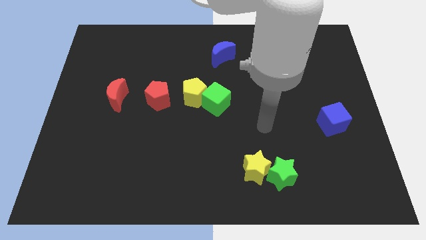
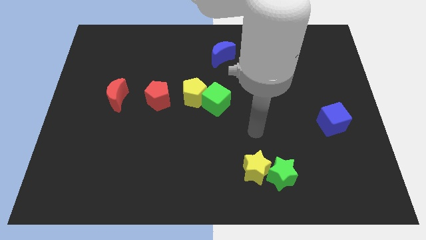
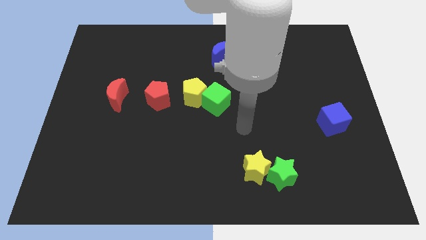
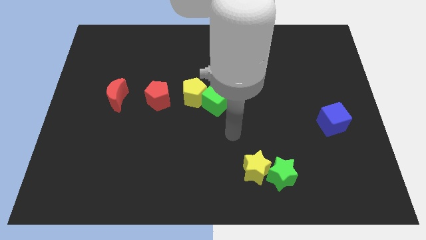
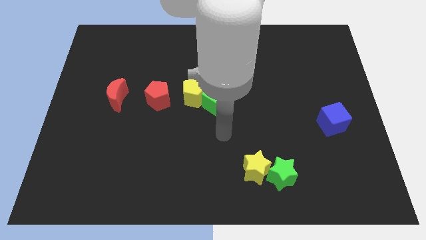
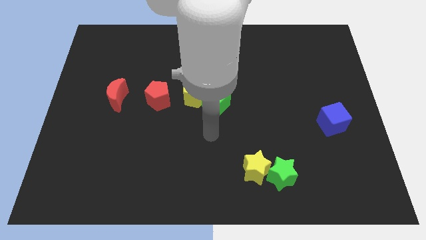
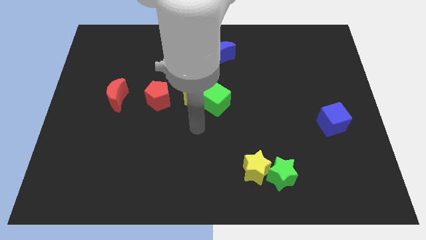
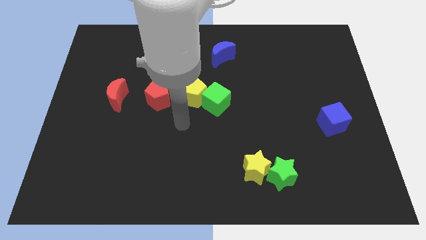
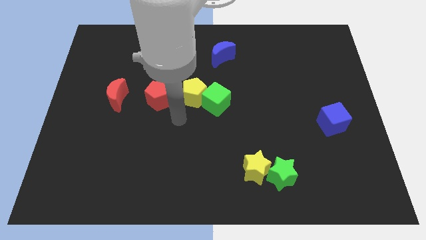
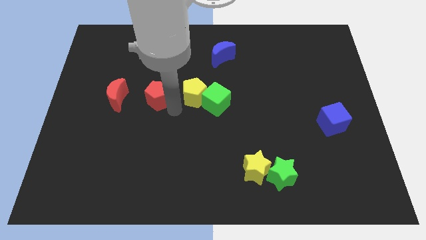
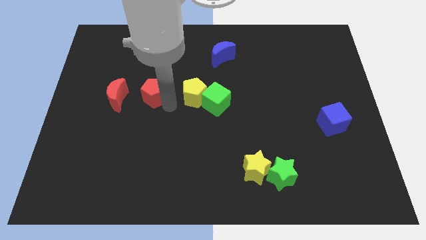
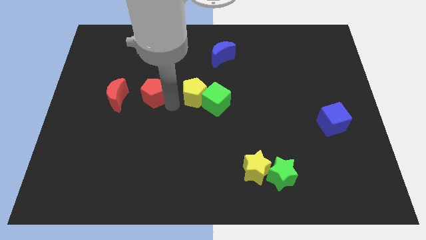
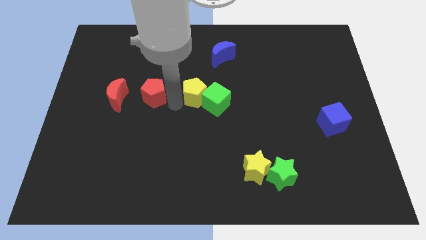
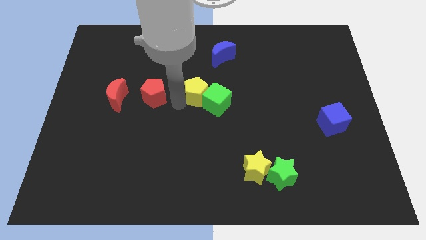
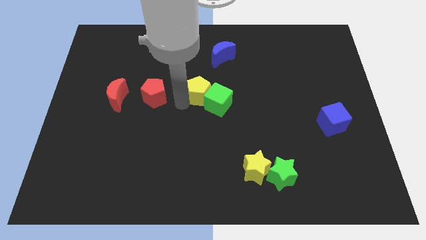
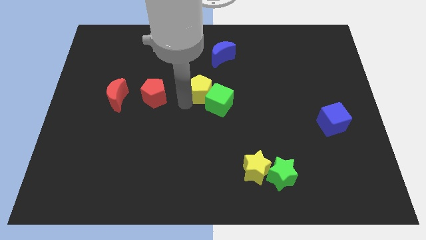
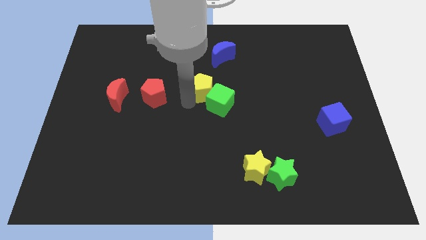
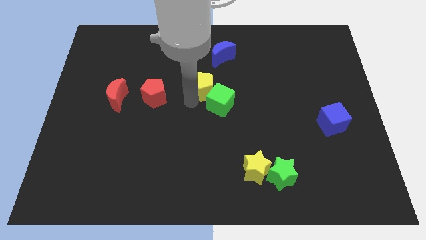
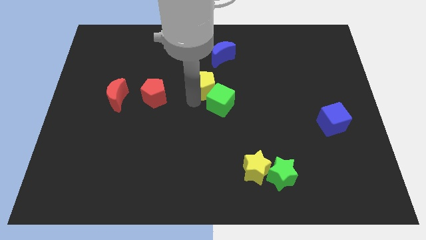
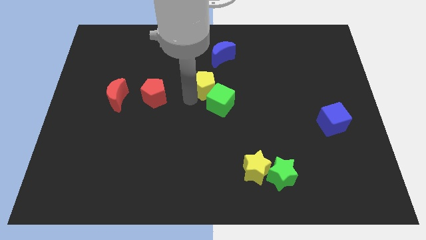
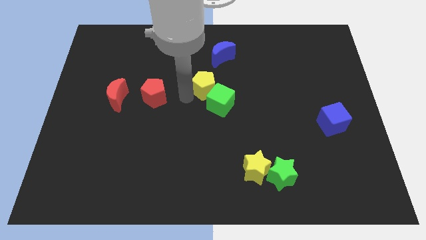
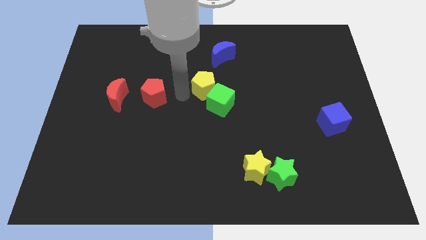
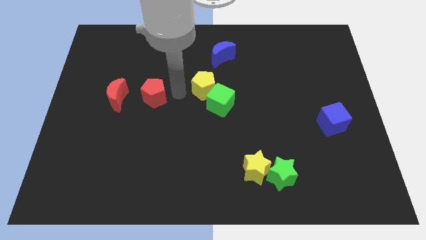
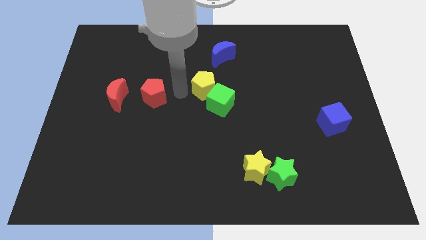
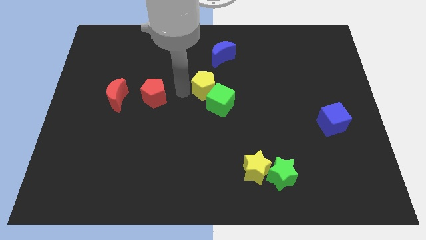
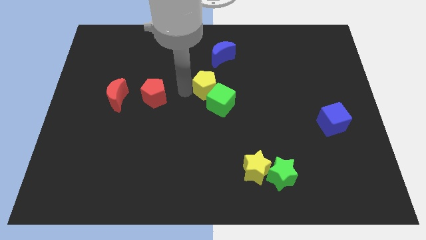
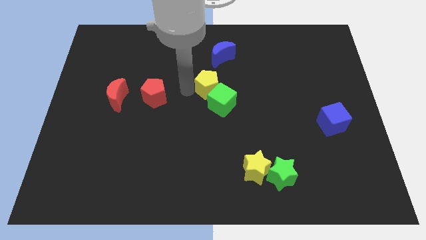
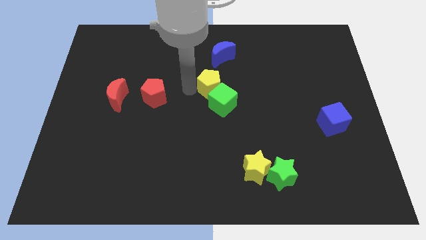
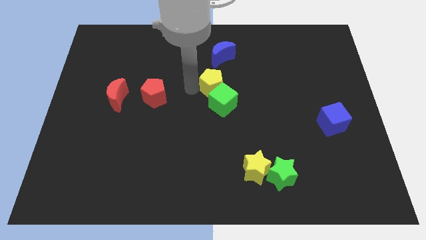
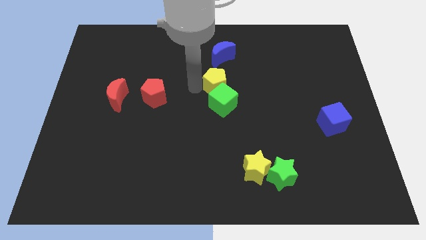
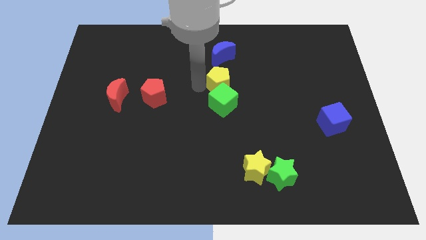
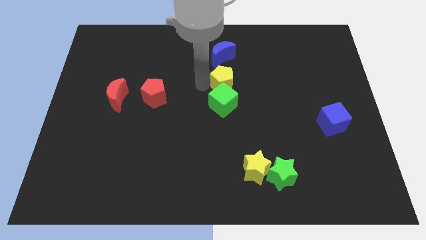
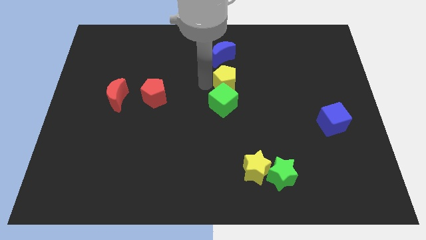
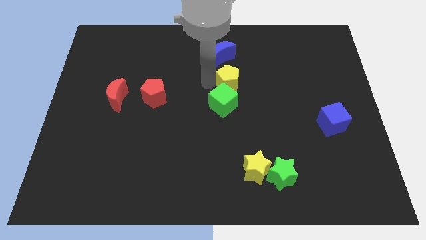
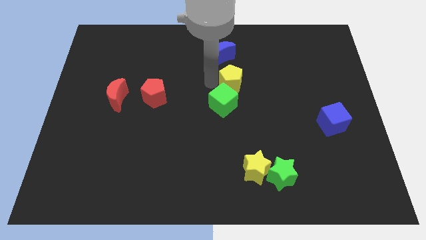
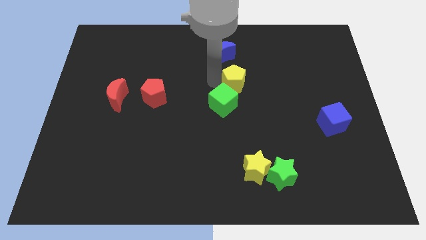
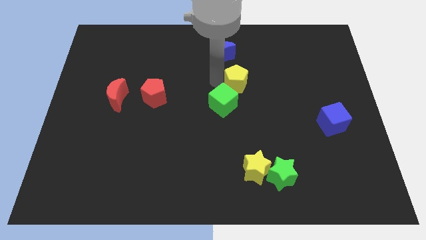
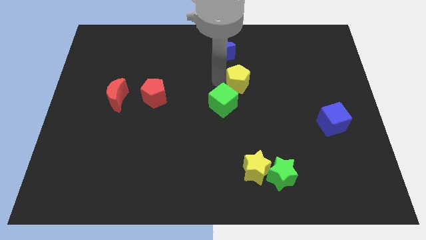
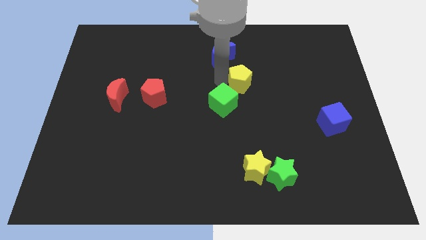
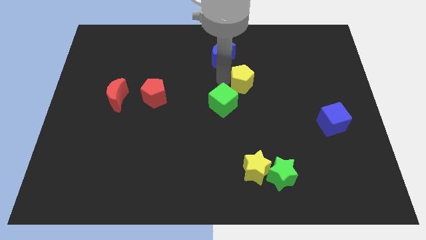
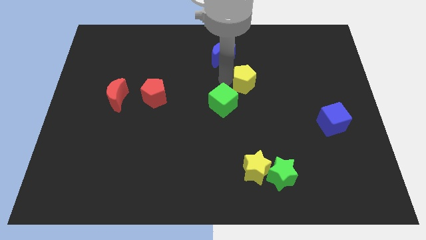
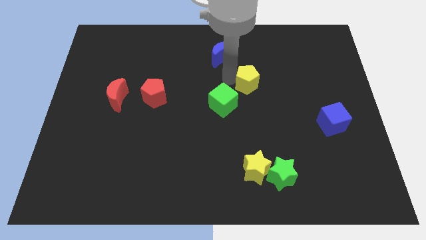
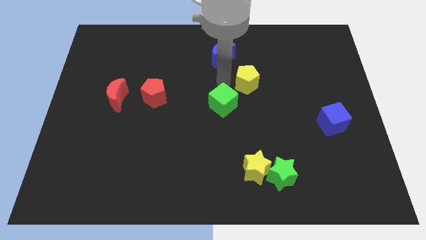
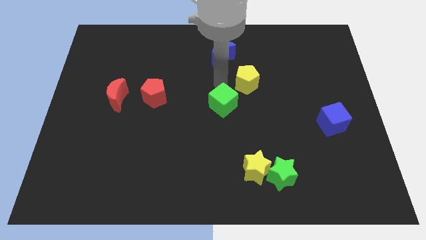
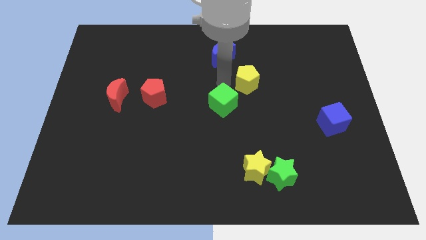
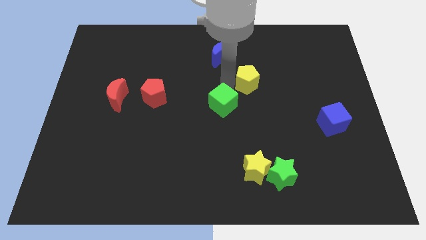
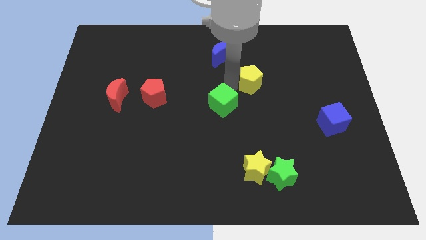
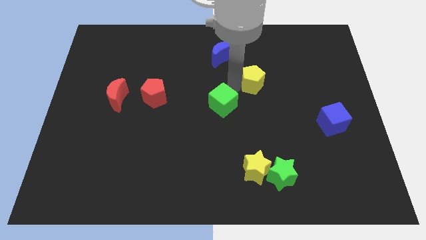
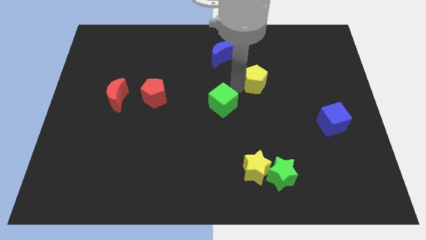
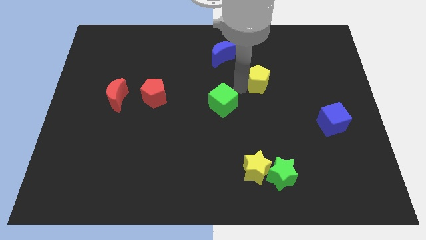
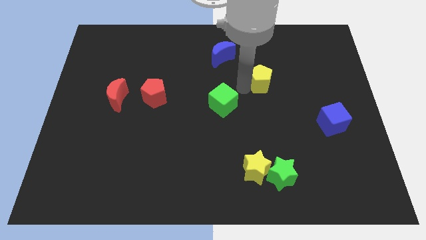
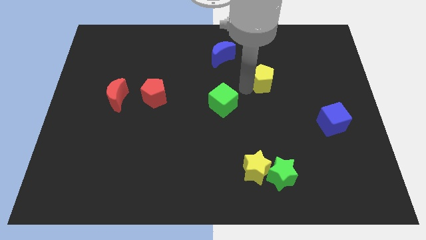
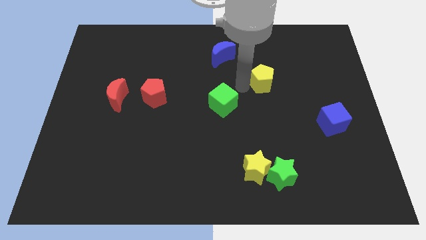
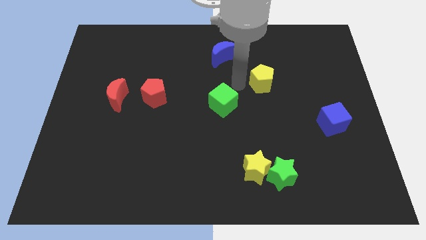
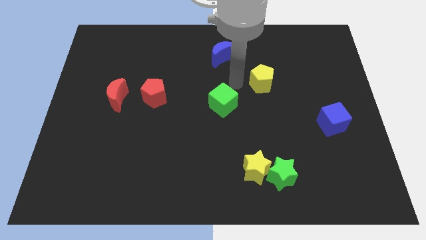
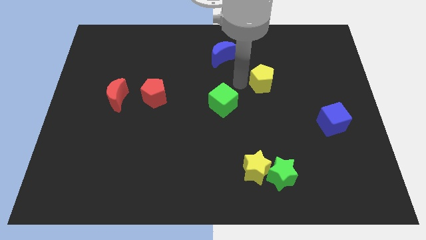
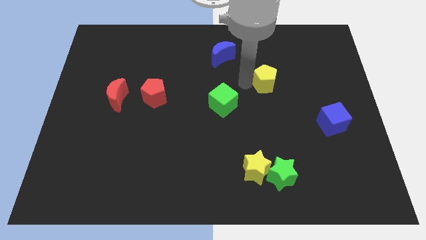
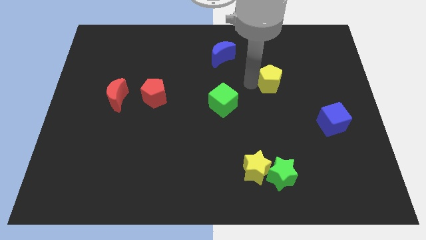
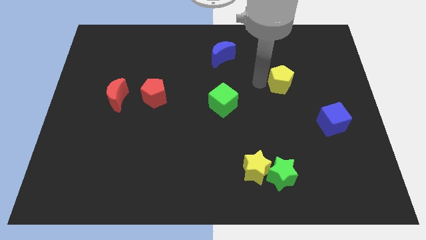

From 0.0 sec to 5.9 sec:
slide the yellow pentagon right

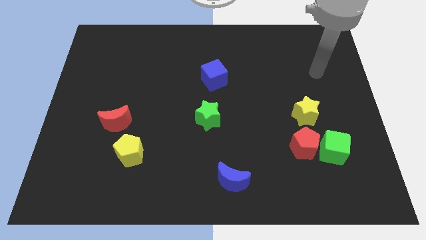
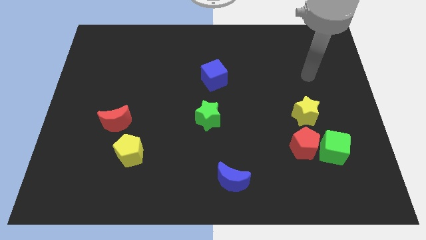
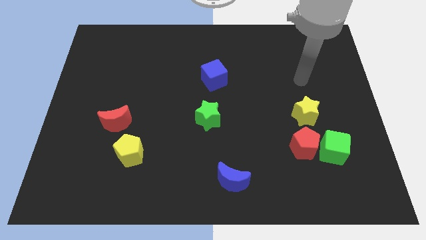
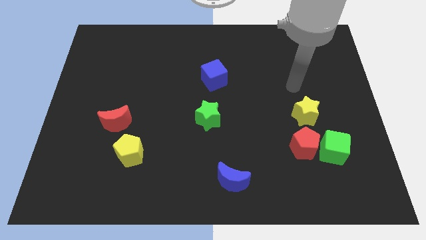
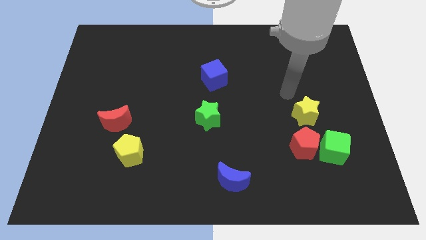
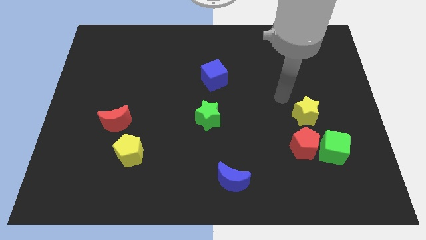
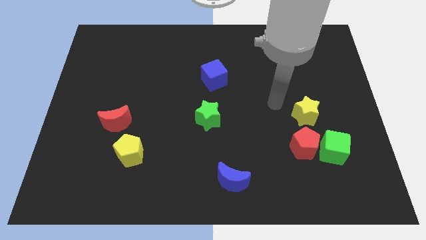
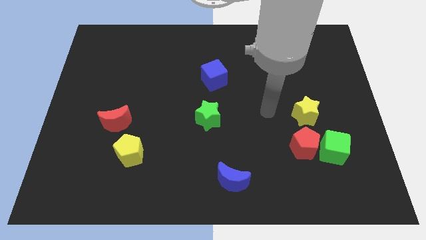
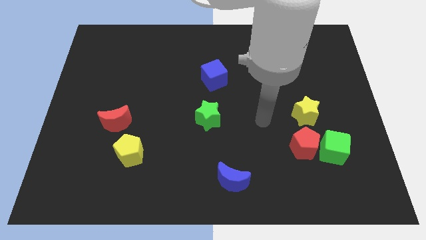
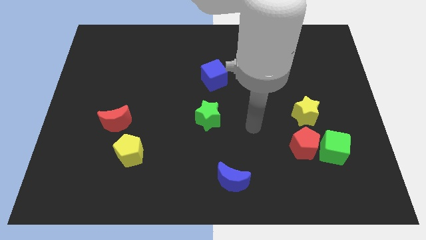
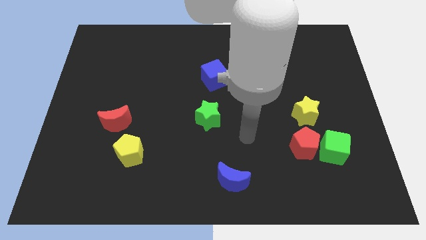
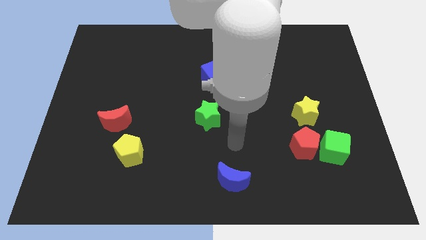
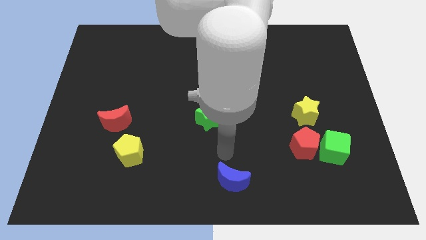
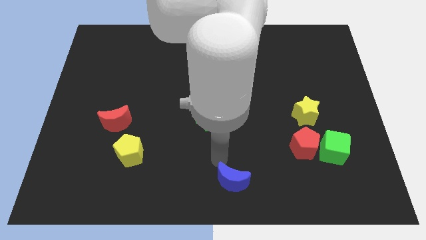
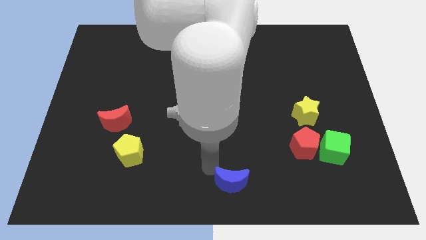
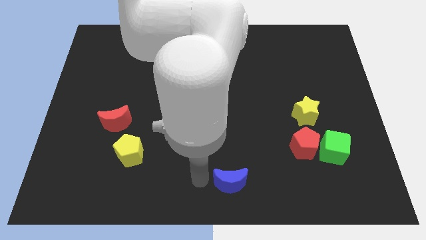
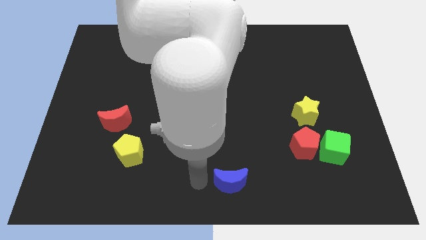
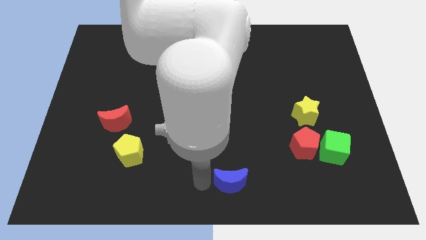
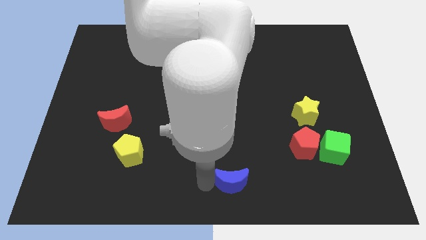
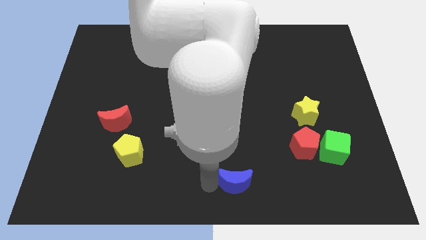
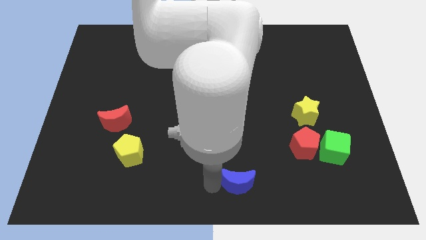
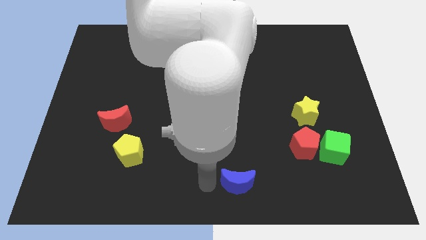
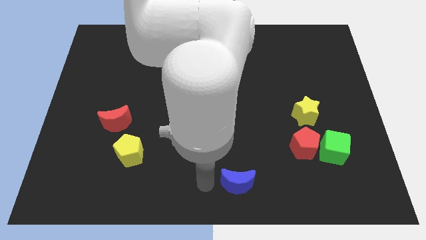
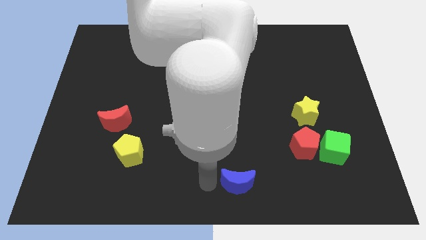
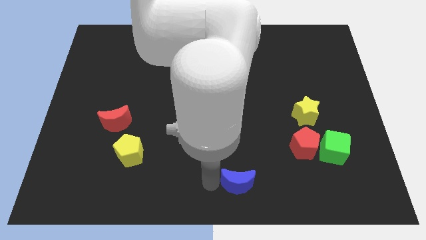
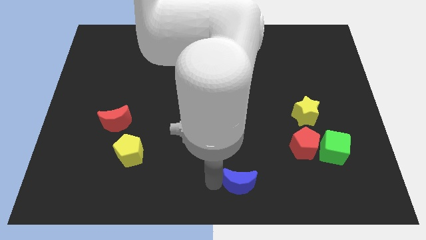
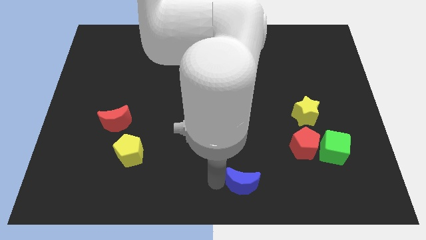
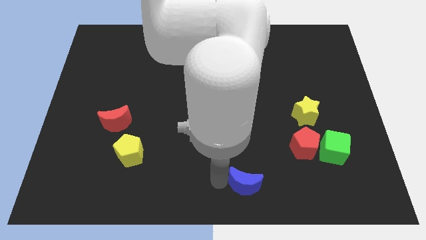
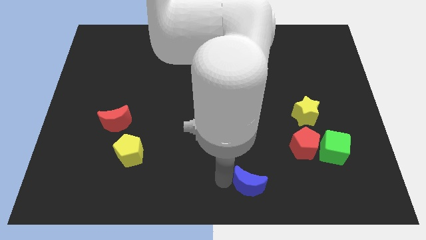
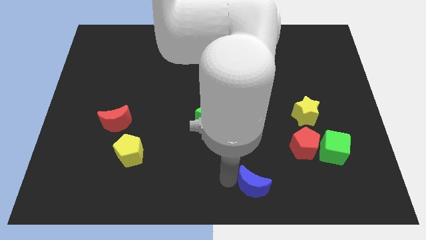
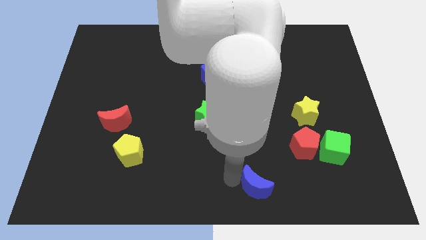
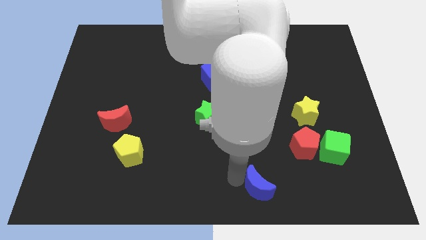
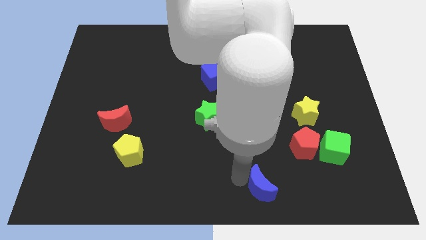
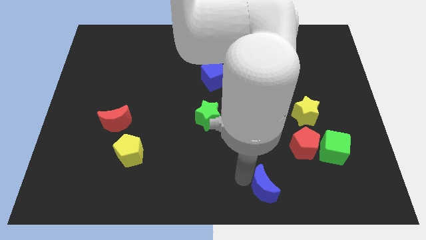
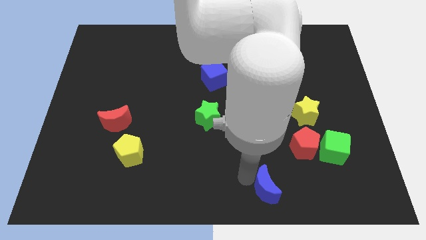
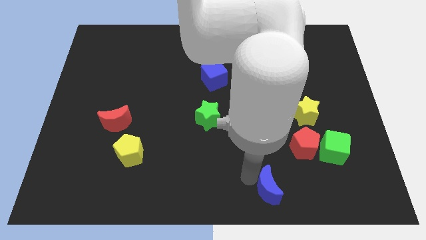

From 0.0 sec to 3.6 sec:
slightly slide the blue moon to the right
